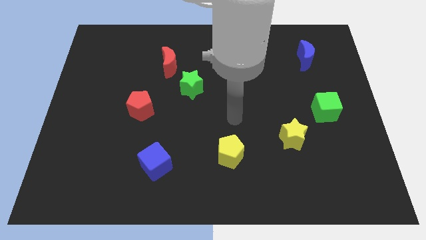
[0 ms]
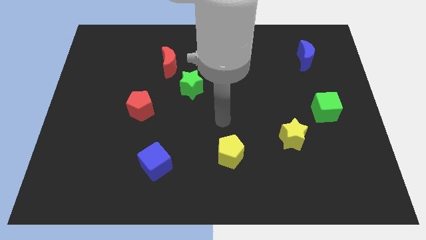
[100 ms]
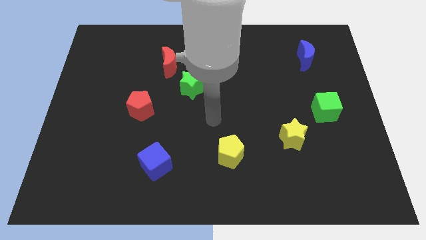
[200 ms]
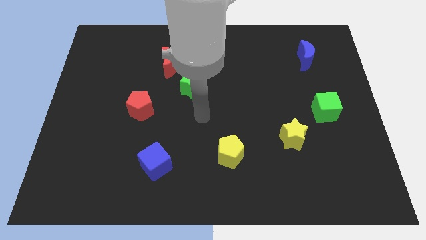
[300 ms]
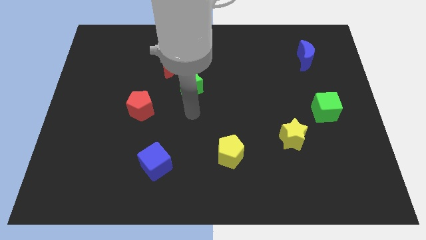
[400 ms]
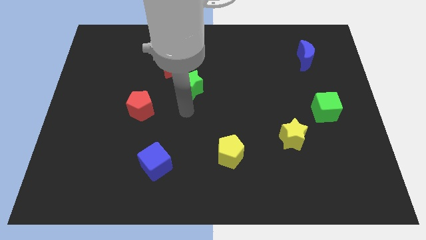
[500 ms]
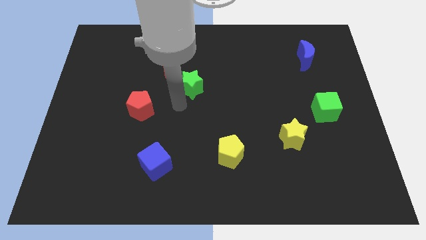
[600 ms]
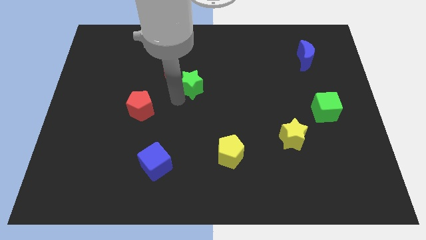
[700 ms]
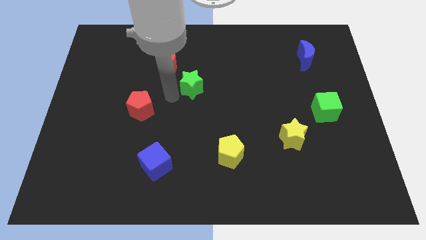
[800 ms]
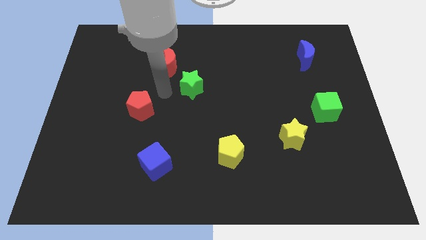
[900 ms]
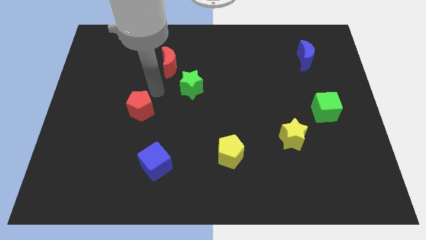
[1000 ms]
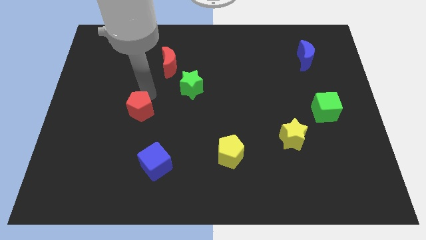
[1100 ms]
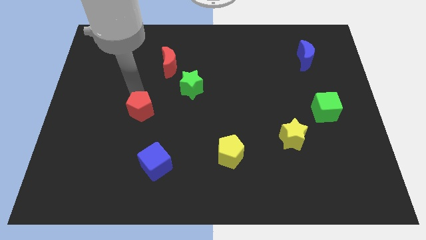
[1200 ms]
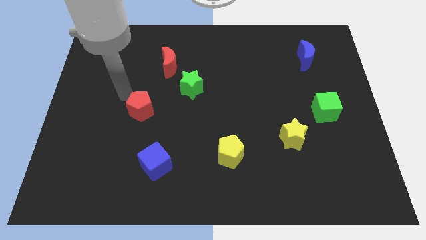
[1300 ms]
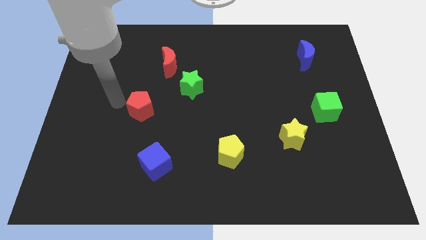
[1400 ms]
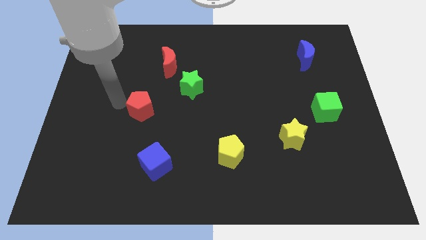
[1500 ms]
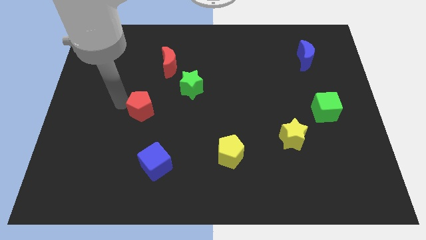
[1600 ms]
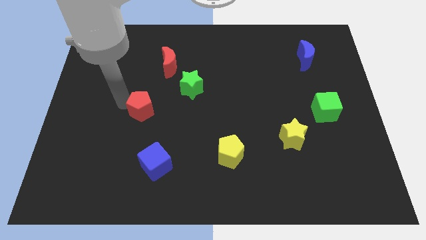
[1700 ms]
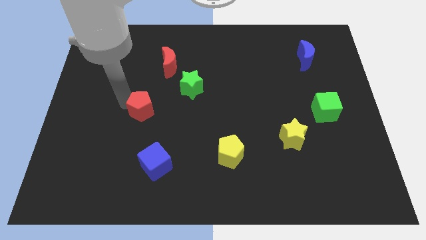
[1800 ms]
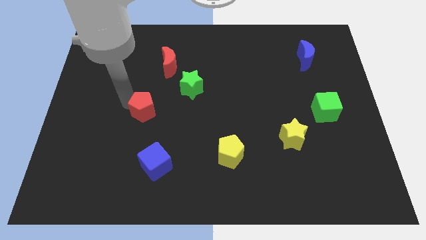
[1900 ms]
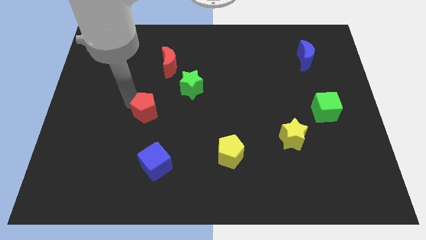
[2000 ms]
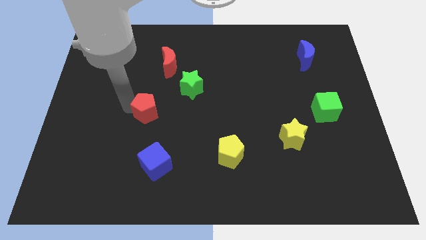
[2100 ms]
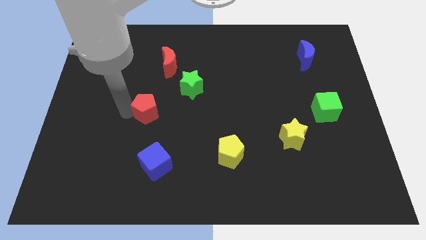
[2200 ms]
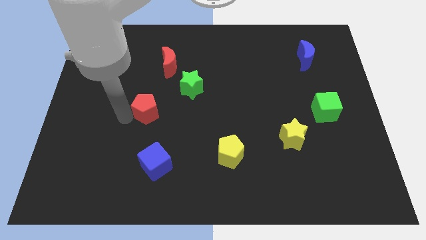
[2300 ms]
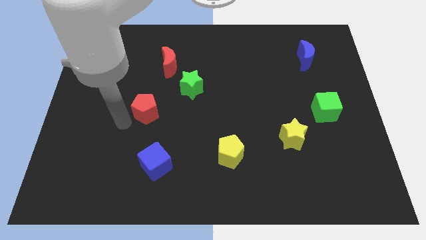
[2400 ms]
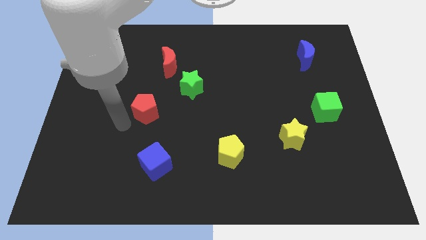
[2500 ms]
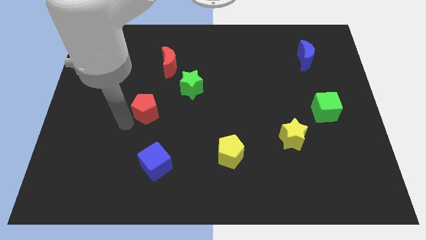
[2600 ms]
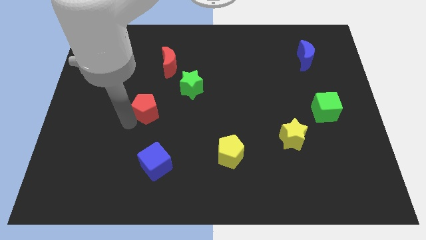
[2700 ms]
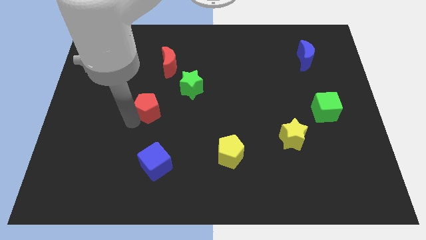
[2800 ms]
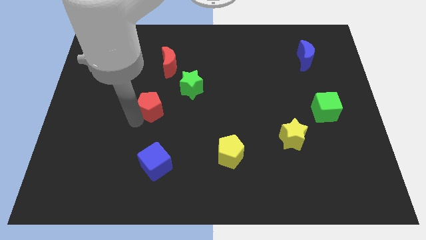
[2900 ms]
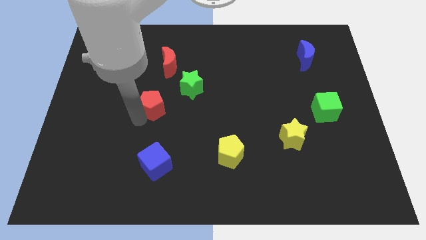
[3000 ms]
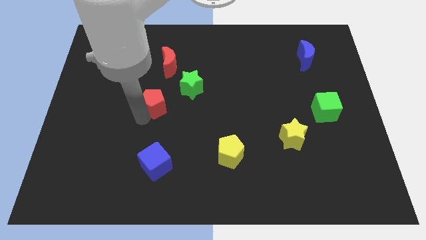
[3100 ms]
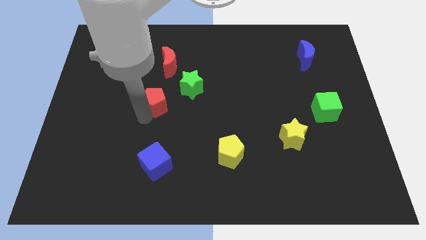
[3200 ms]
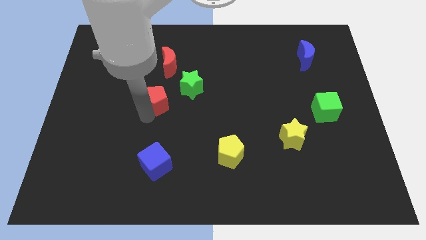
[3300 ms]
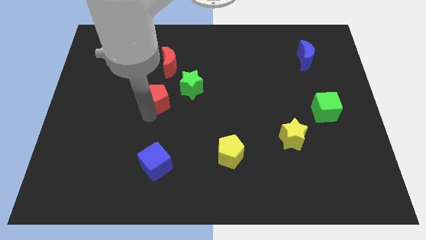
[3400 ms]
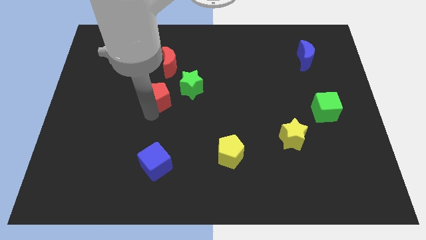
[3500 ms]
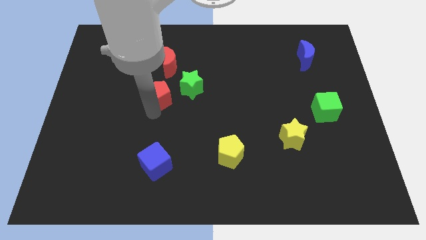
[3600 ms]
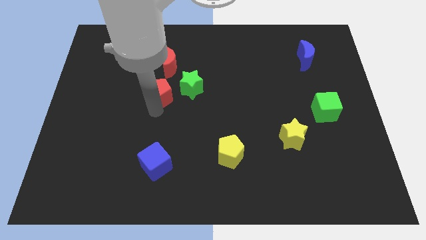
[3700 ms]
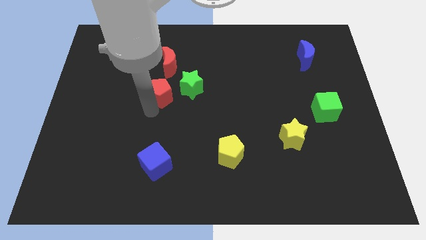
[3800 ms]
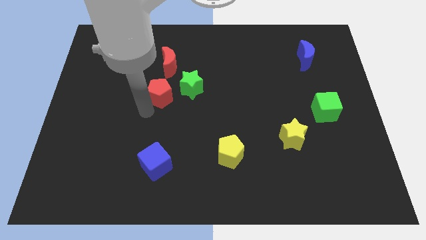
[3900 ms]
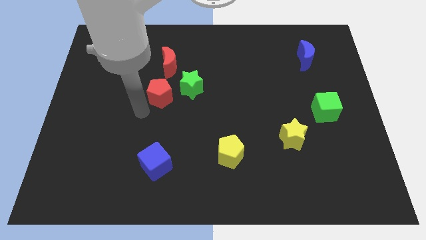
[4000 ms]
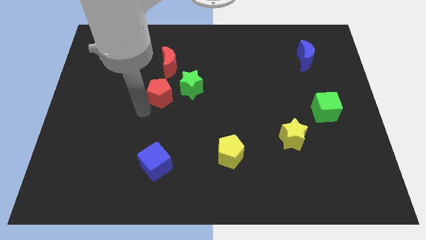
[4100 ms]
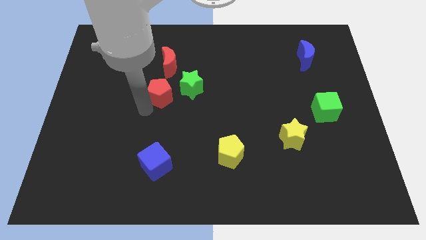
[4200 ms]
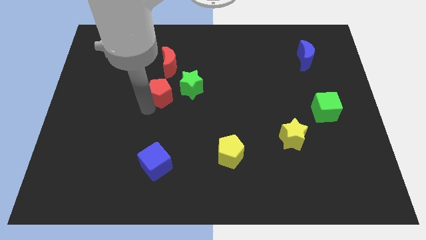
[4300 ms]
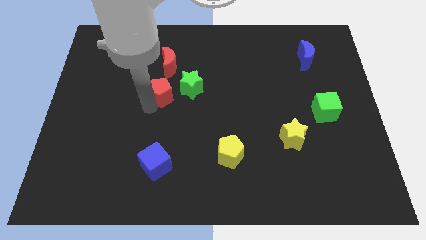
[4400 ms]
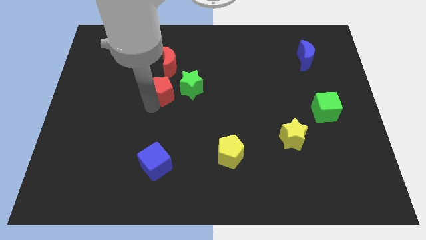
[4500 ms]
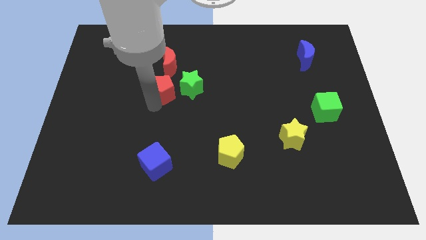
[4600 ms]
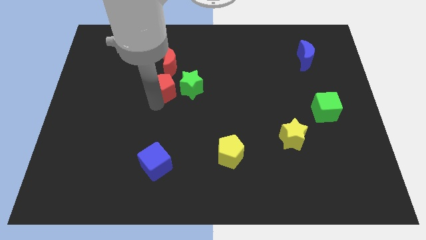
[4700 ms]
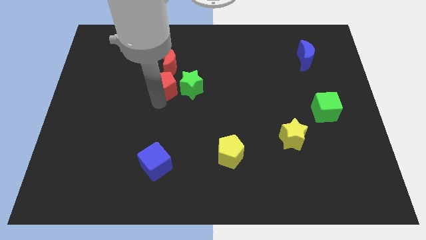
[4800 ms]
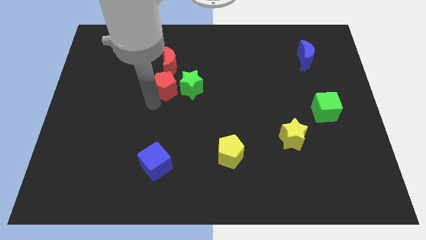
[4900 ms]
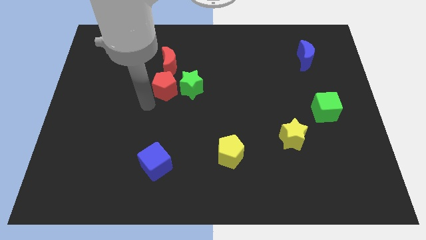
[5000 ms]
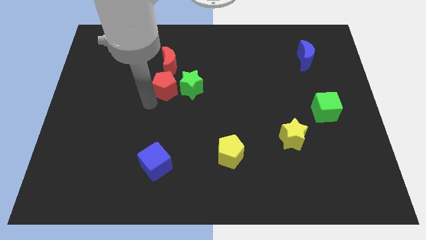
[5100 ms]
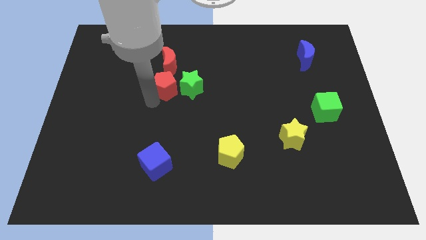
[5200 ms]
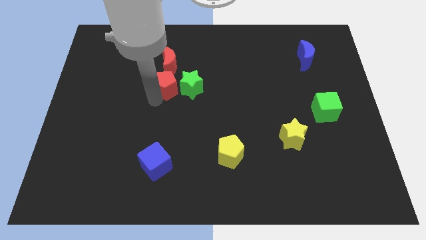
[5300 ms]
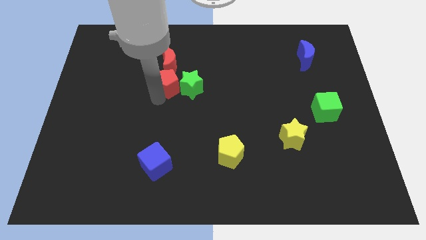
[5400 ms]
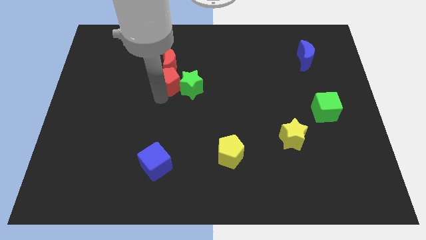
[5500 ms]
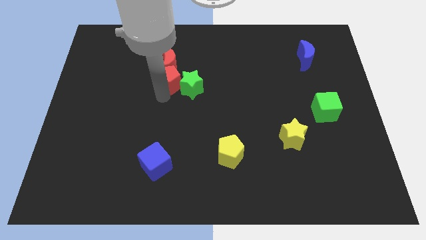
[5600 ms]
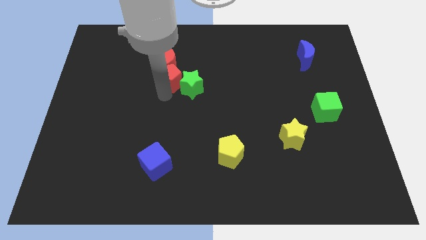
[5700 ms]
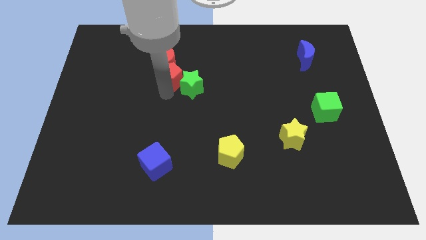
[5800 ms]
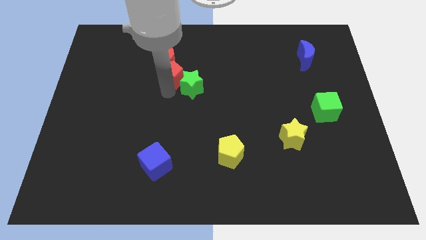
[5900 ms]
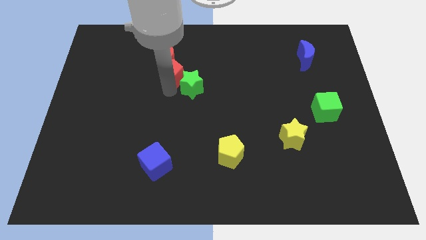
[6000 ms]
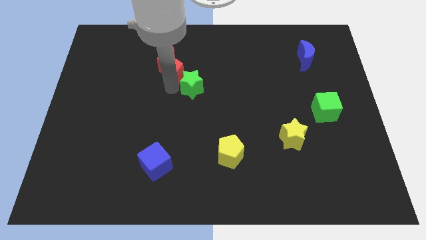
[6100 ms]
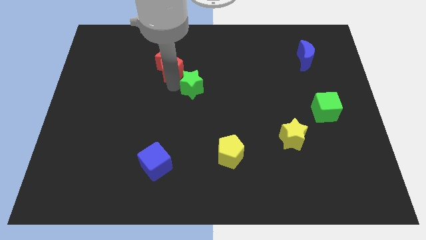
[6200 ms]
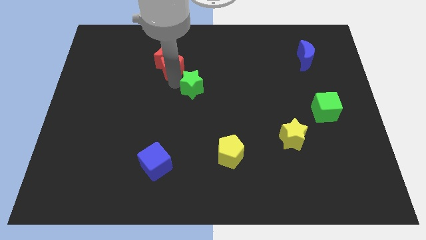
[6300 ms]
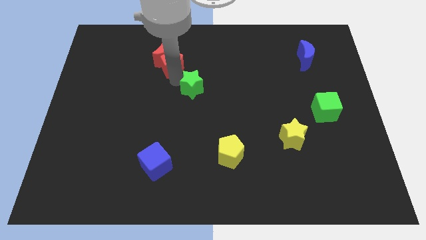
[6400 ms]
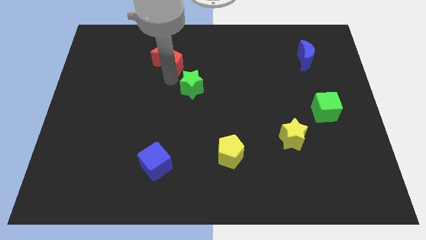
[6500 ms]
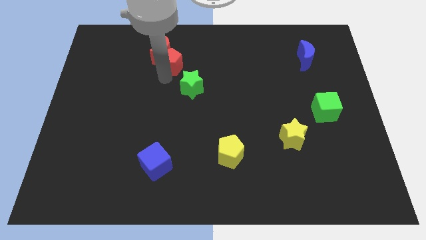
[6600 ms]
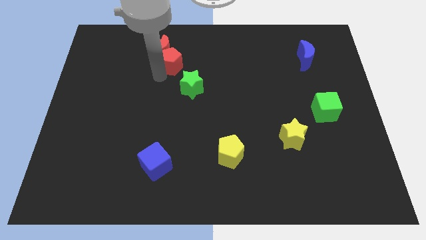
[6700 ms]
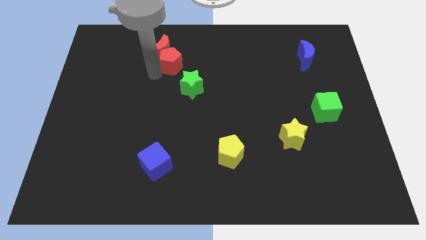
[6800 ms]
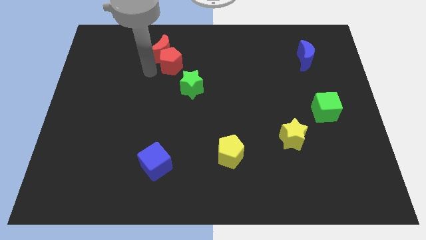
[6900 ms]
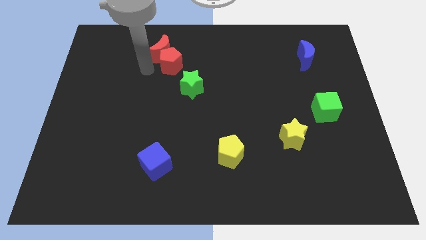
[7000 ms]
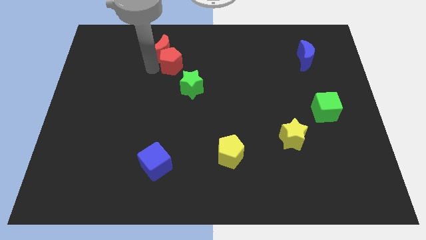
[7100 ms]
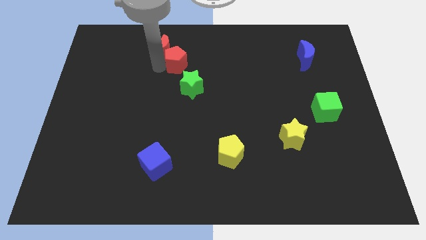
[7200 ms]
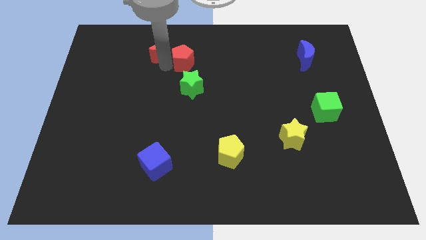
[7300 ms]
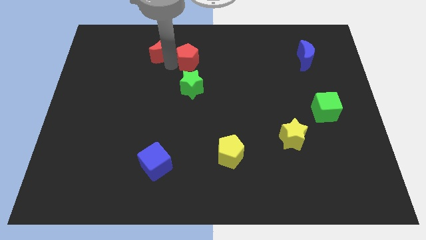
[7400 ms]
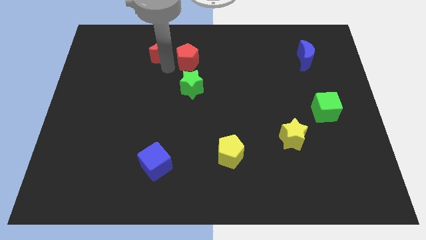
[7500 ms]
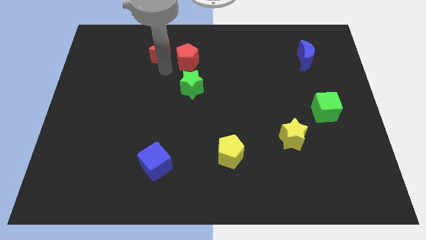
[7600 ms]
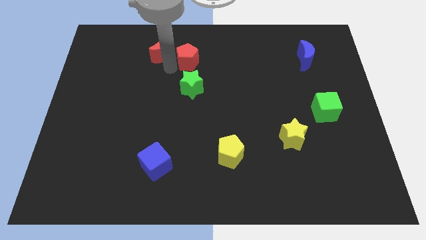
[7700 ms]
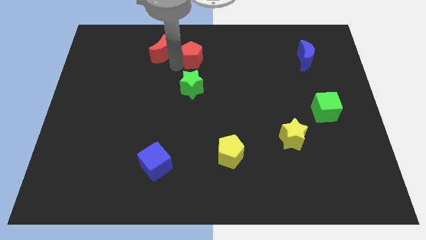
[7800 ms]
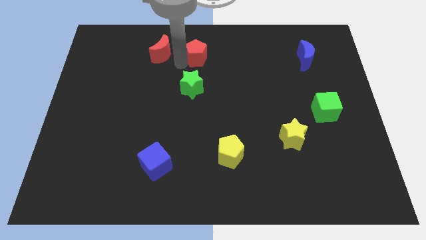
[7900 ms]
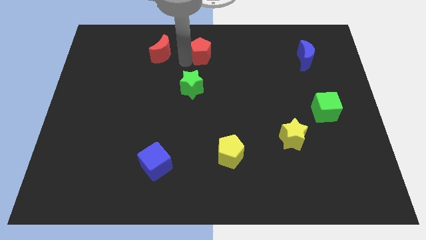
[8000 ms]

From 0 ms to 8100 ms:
put the red pentagon to the top
